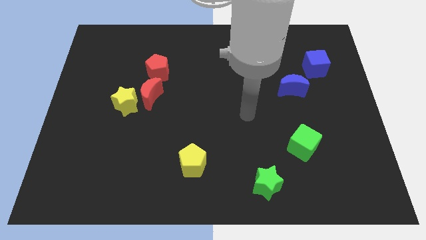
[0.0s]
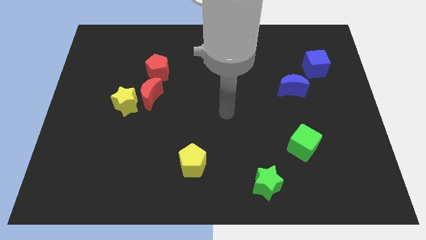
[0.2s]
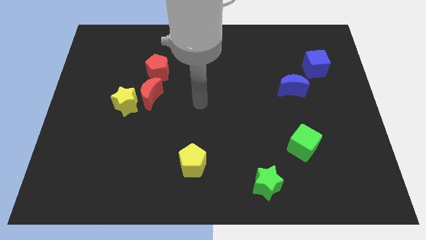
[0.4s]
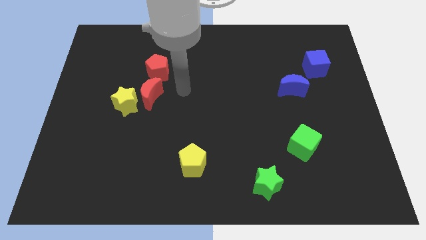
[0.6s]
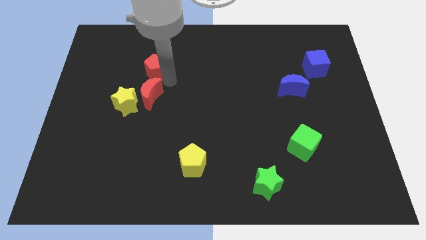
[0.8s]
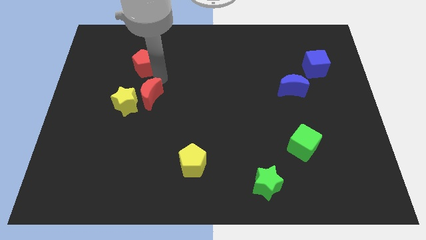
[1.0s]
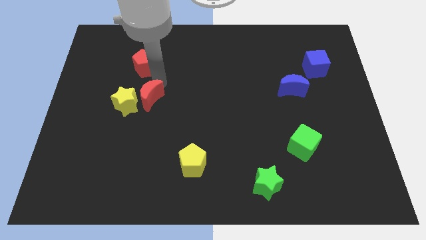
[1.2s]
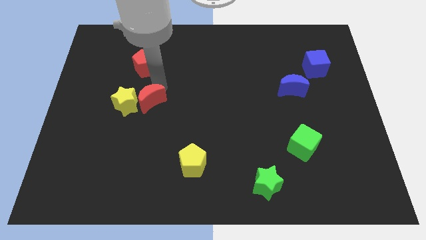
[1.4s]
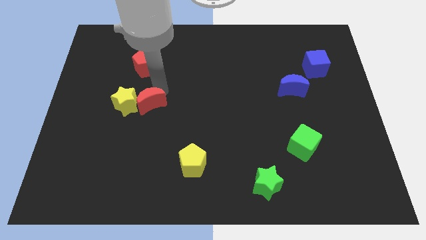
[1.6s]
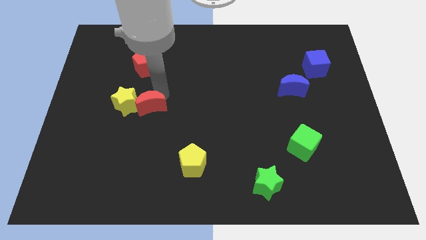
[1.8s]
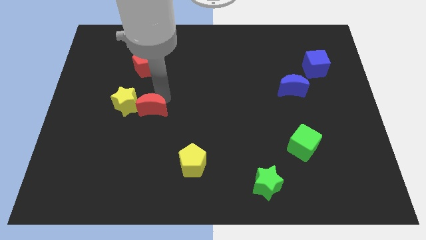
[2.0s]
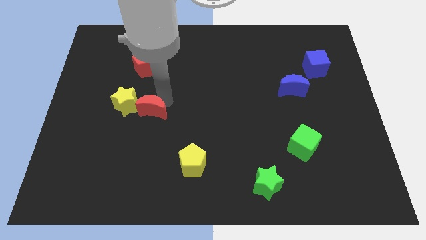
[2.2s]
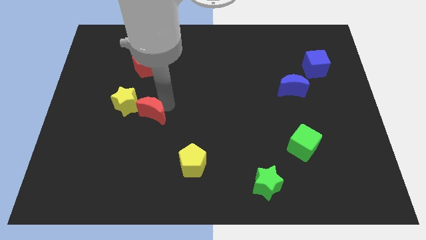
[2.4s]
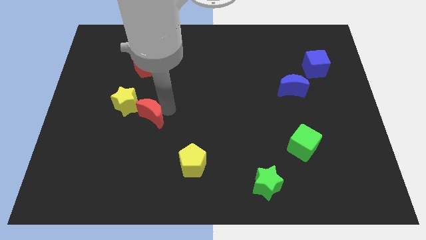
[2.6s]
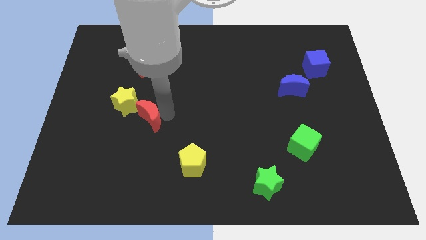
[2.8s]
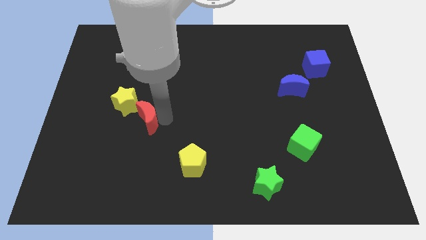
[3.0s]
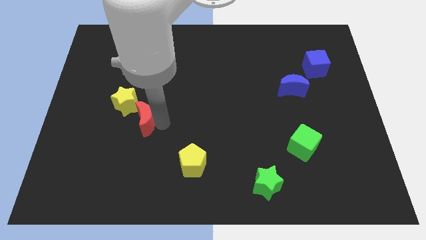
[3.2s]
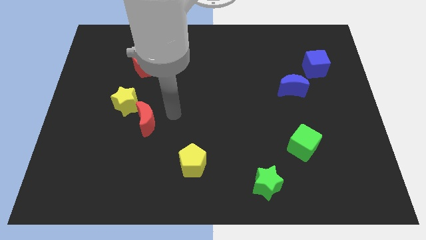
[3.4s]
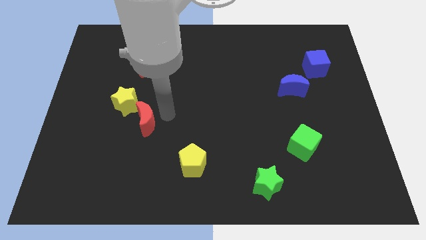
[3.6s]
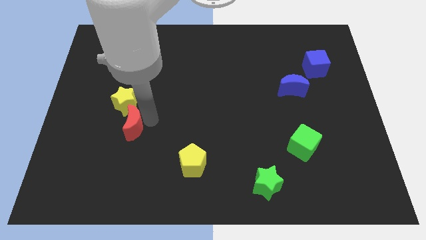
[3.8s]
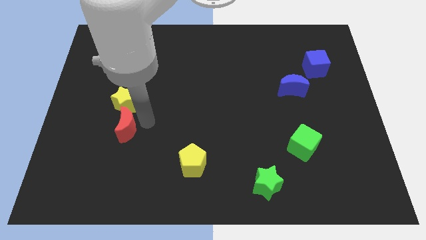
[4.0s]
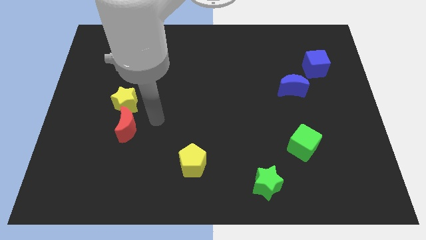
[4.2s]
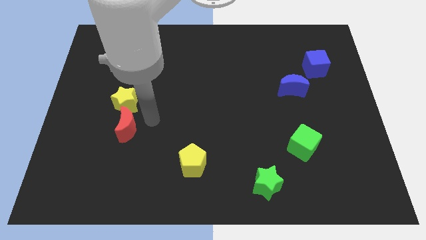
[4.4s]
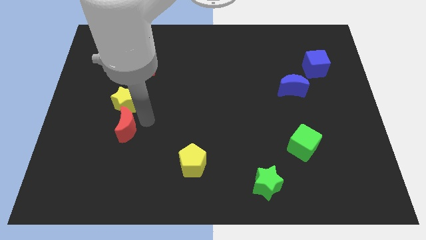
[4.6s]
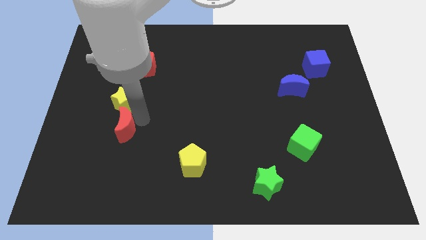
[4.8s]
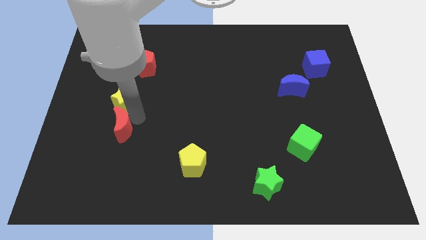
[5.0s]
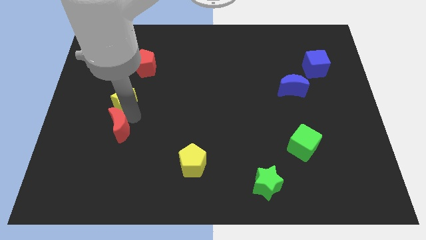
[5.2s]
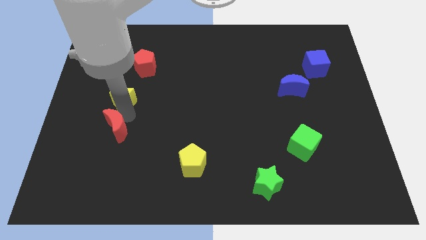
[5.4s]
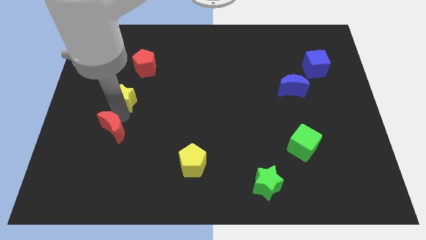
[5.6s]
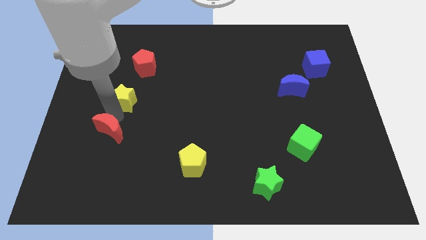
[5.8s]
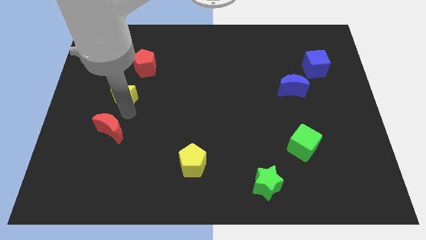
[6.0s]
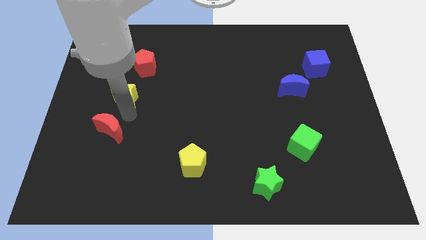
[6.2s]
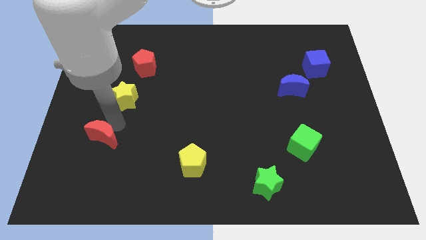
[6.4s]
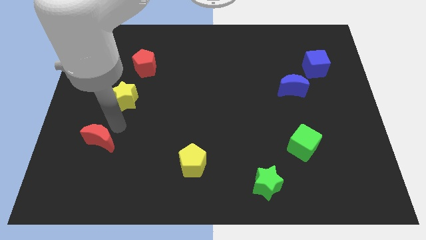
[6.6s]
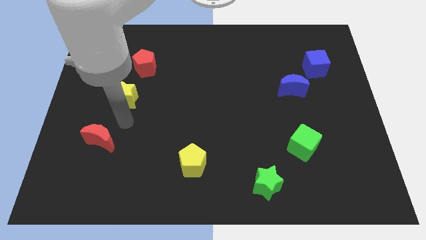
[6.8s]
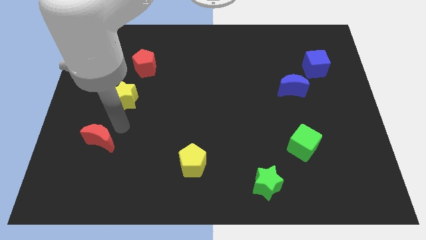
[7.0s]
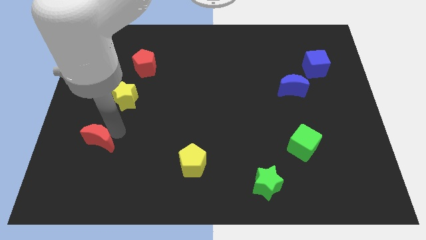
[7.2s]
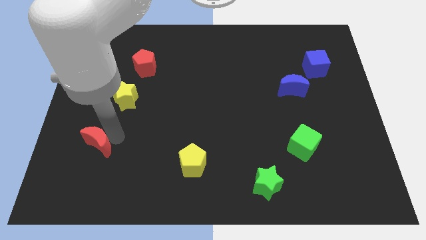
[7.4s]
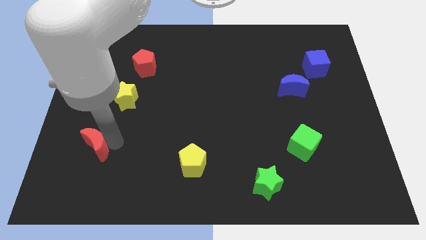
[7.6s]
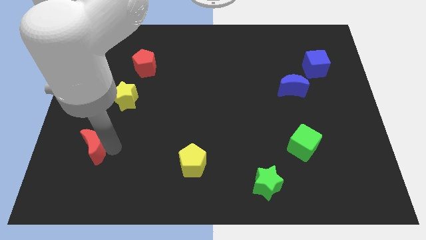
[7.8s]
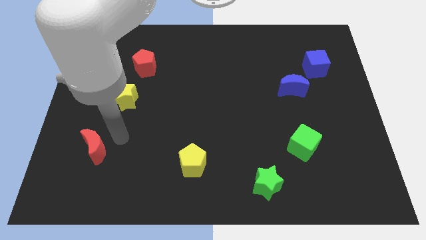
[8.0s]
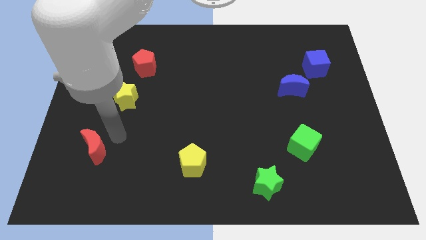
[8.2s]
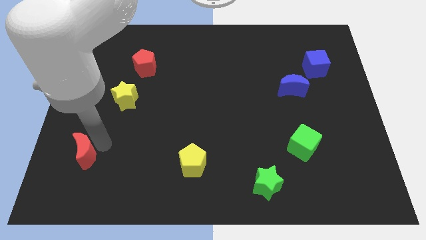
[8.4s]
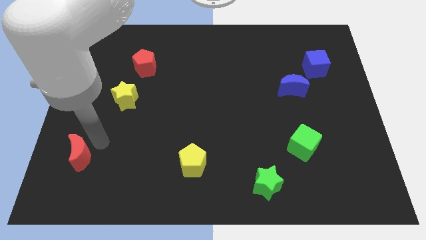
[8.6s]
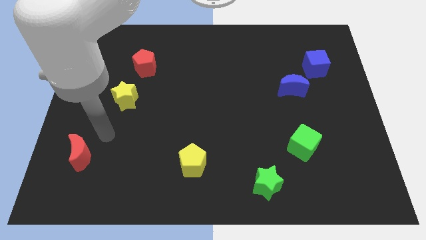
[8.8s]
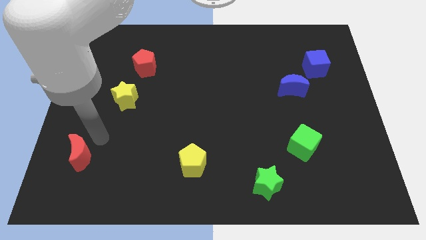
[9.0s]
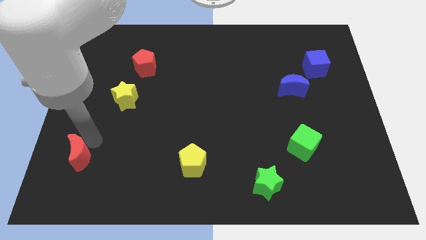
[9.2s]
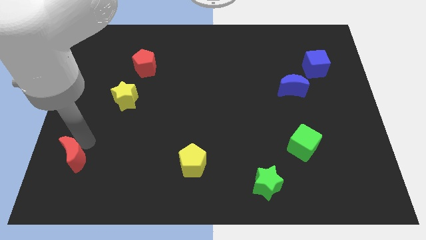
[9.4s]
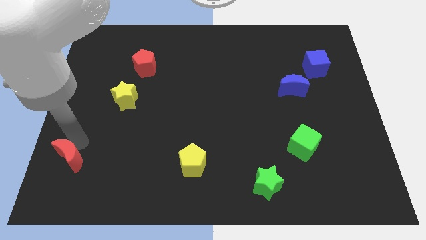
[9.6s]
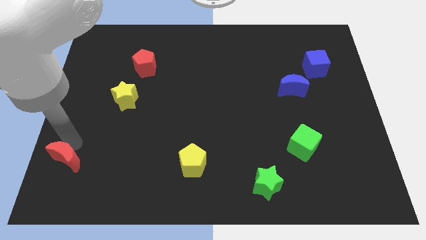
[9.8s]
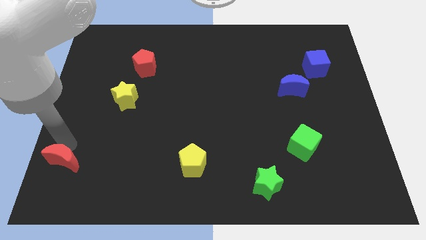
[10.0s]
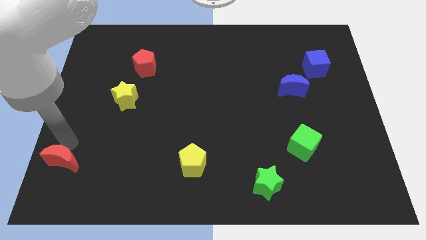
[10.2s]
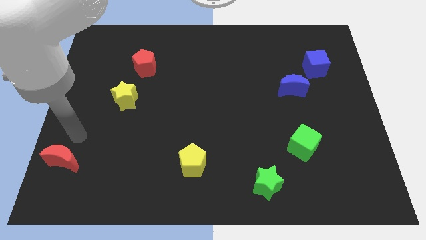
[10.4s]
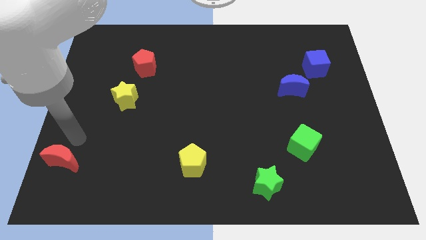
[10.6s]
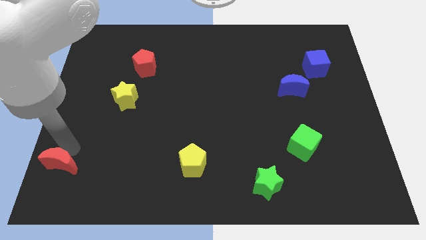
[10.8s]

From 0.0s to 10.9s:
move the red moon to the bottom left
